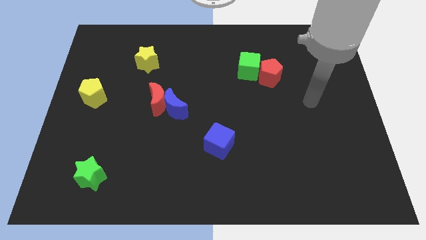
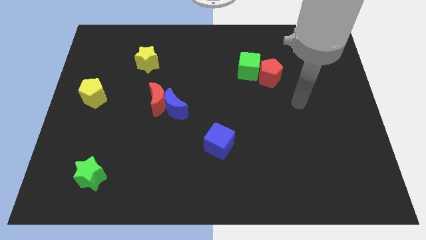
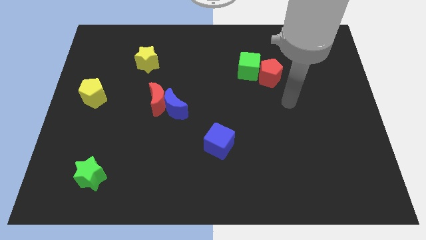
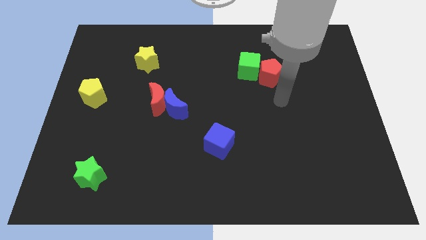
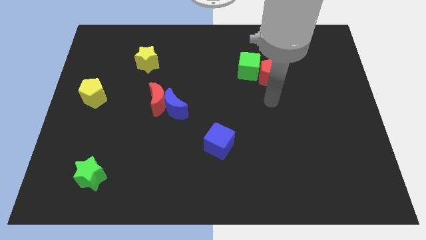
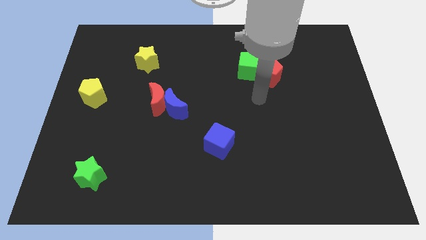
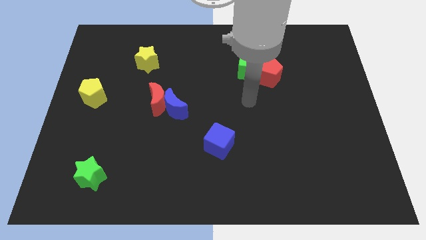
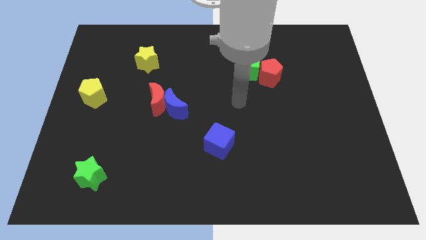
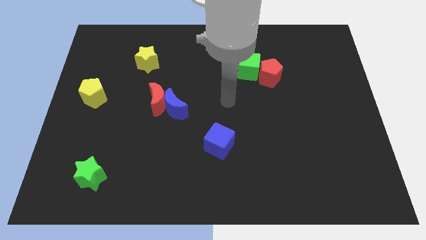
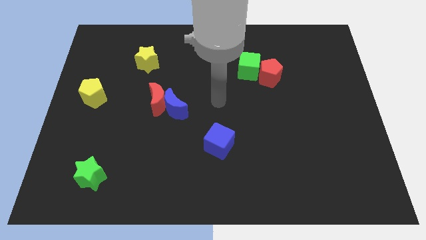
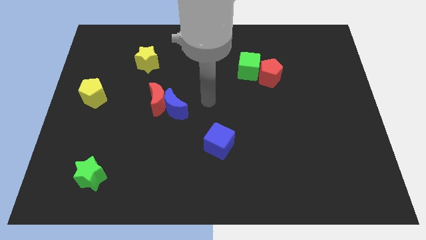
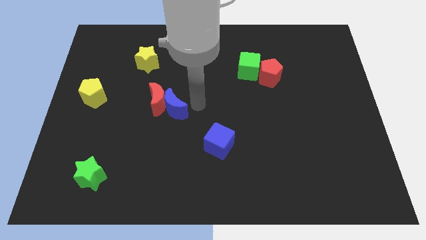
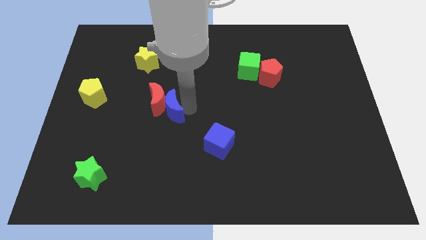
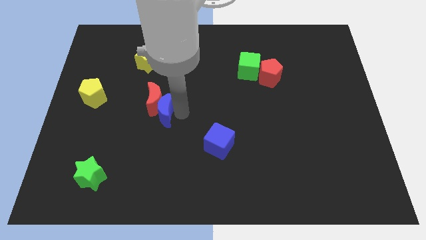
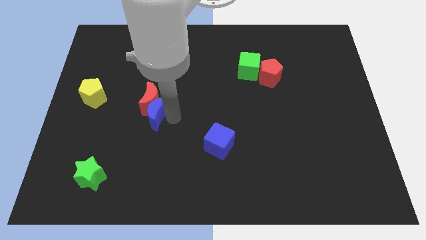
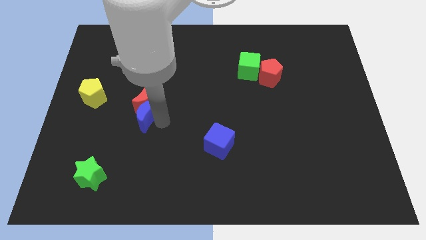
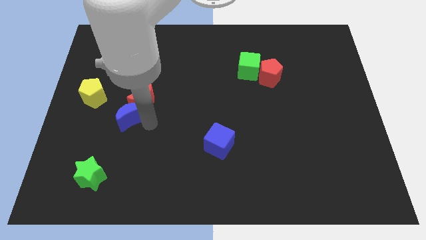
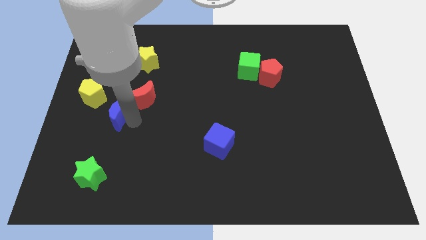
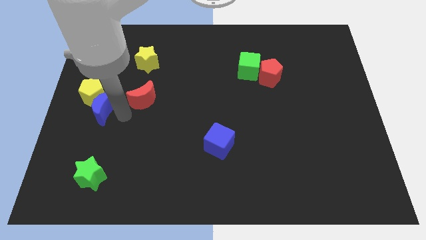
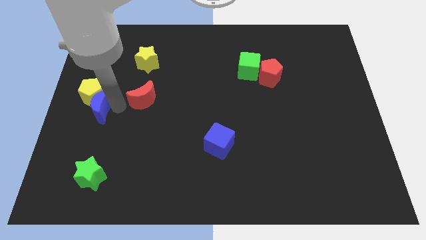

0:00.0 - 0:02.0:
move the red moon away from the blue moon

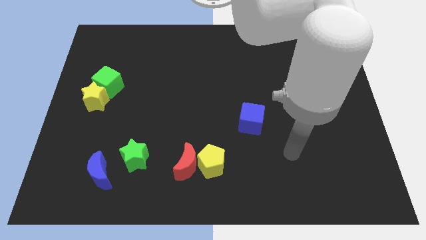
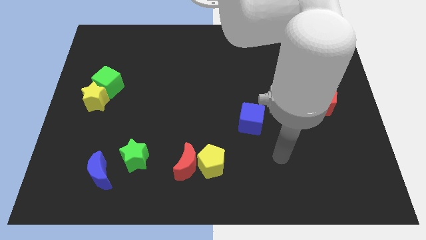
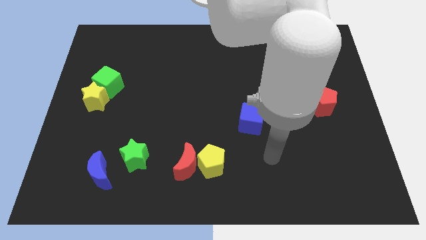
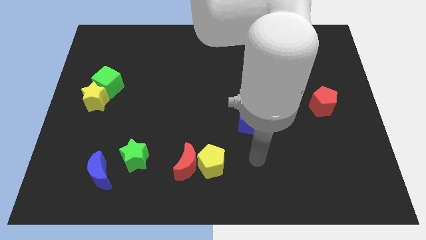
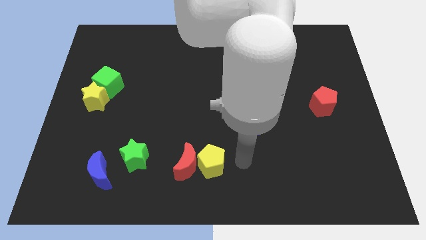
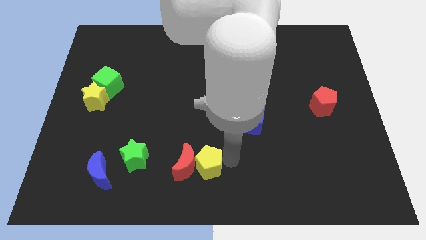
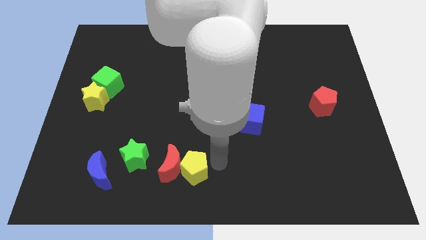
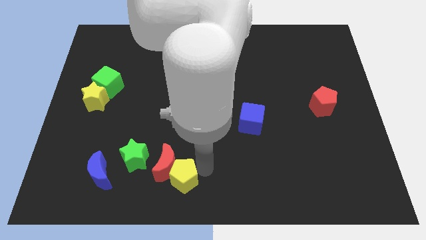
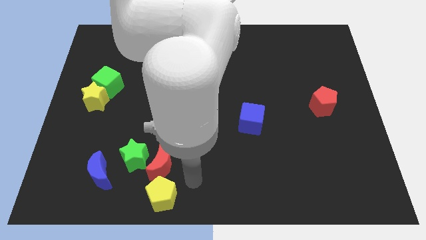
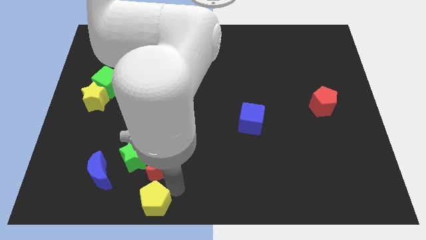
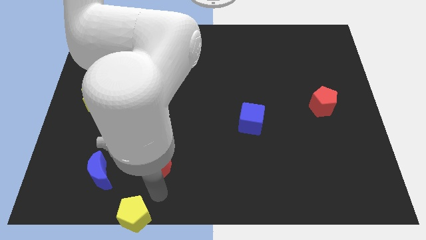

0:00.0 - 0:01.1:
pull the red moon apart from the yellow pentagon

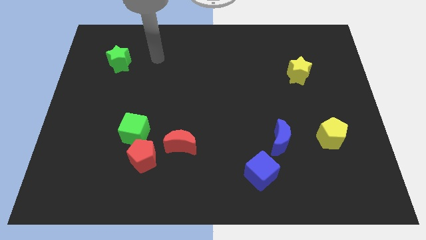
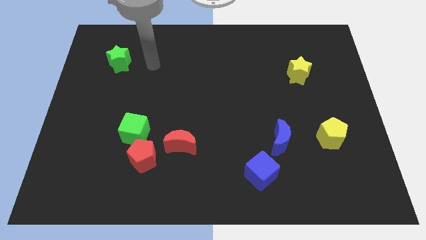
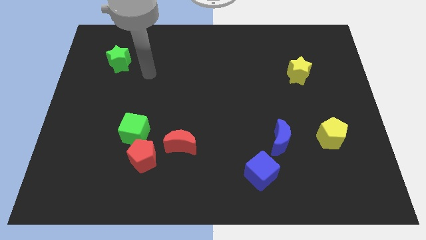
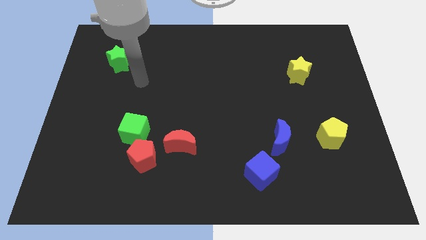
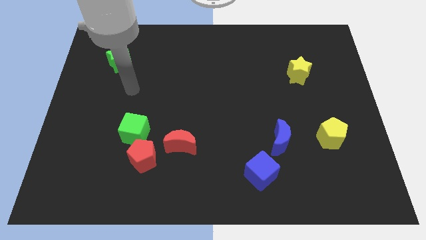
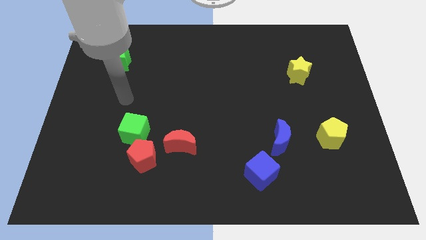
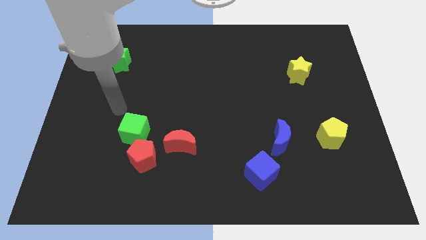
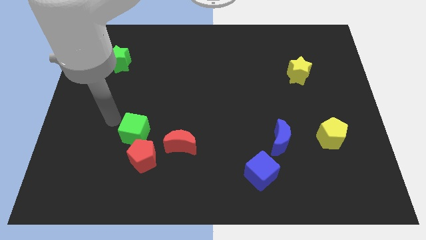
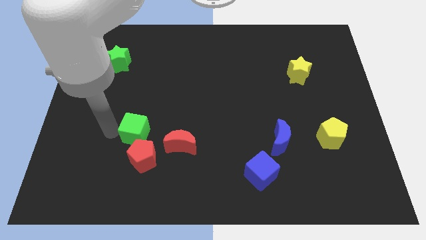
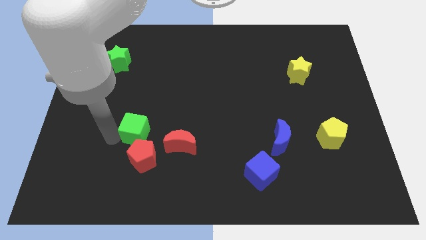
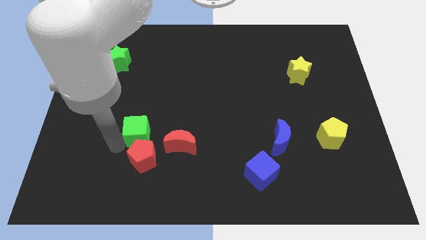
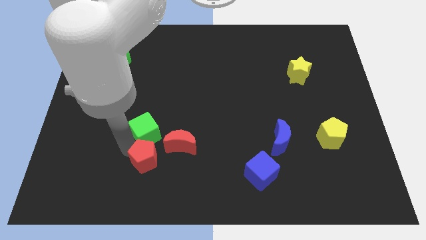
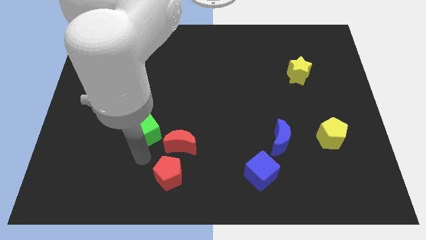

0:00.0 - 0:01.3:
separate the green cube from the red pentagon

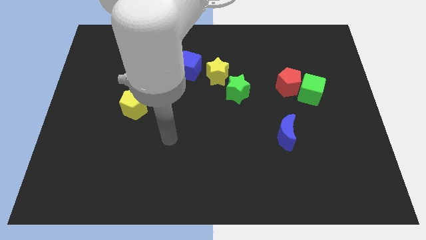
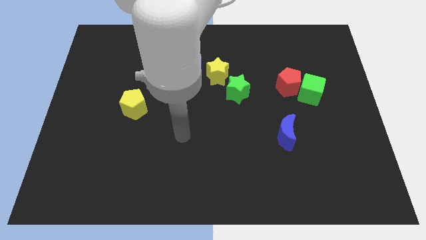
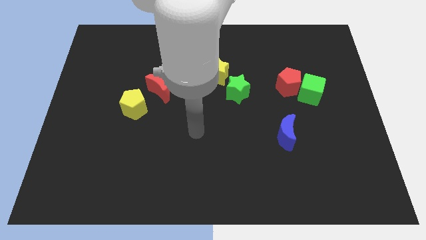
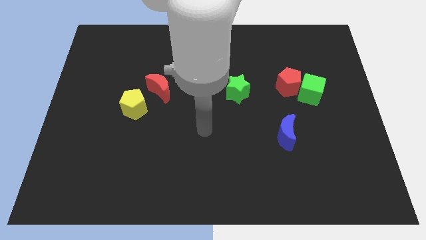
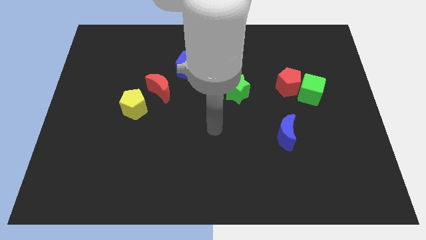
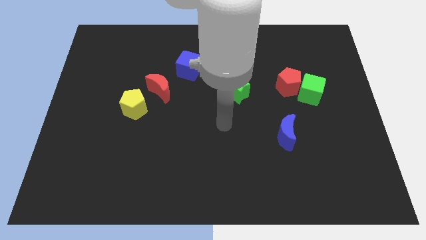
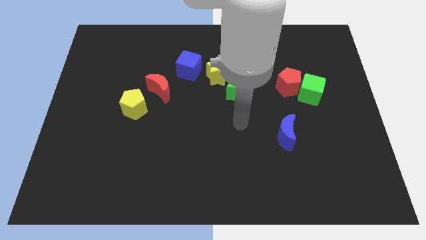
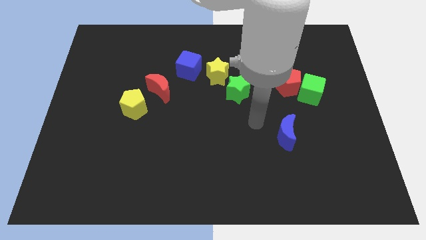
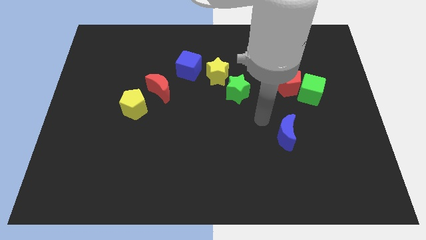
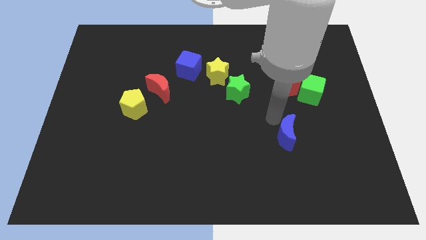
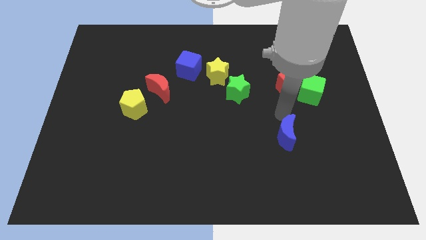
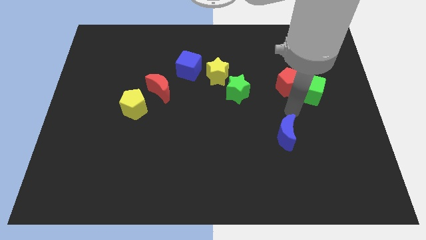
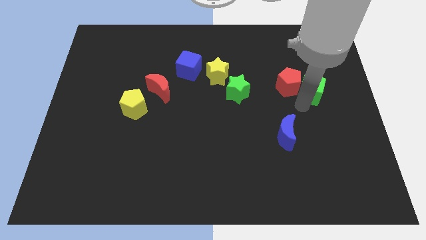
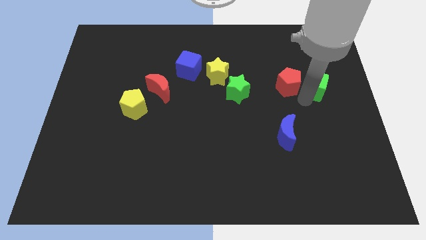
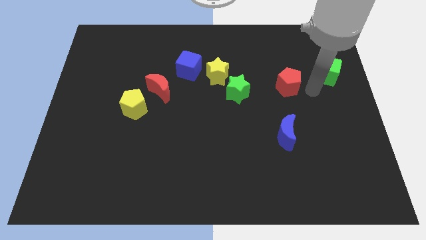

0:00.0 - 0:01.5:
move the red pentagon away from the green cube

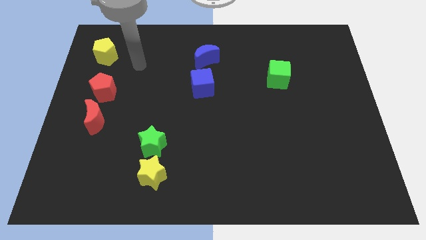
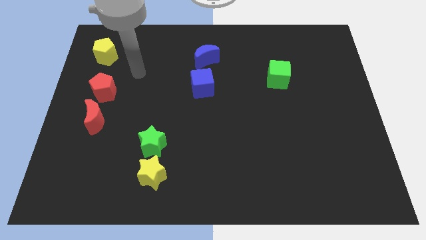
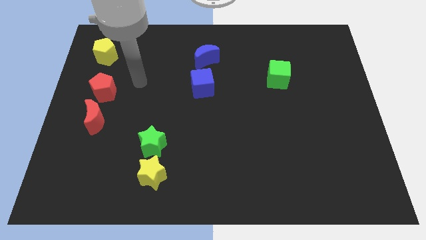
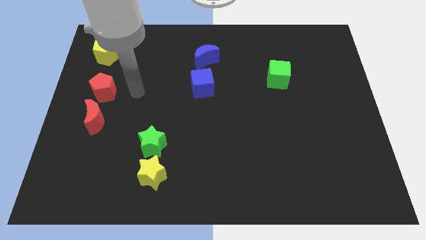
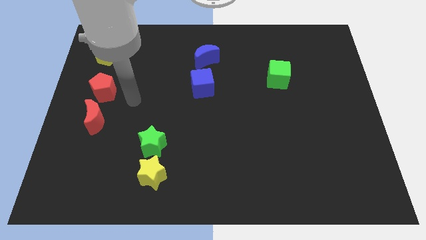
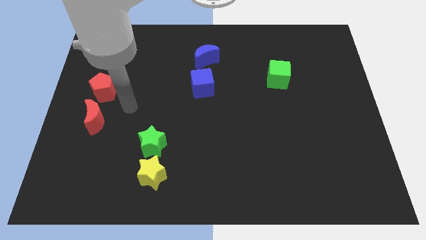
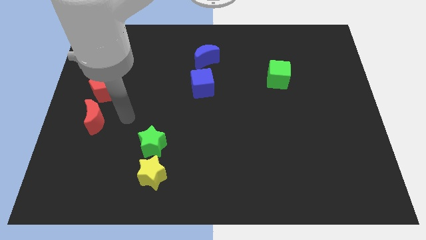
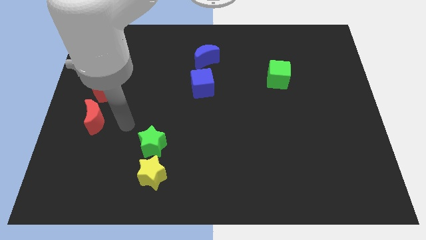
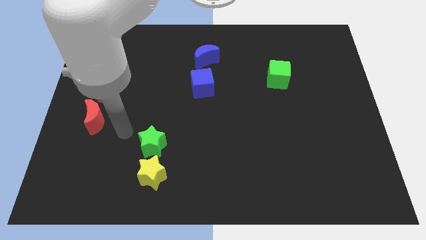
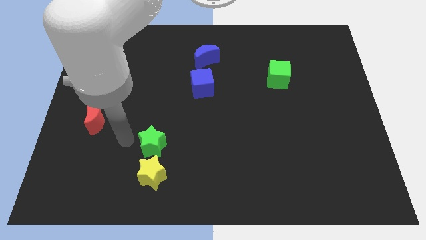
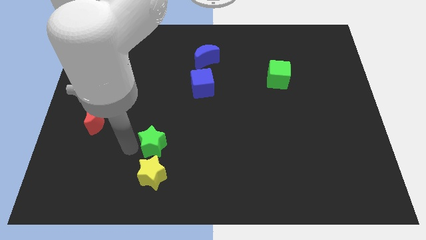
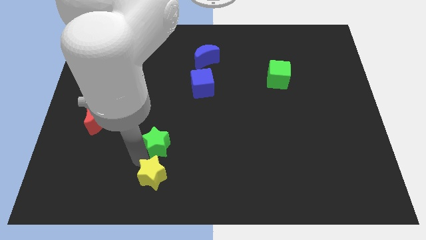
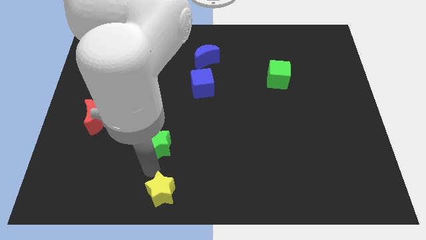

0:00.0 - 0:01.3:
separate the green star from the yellow star

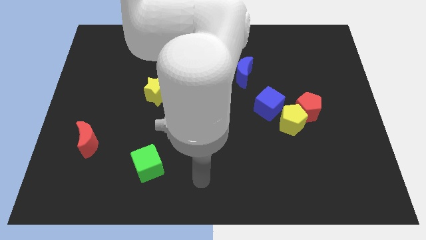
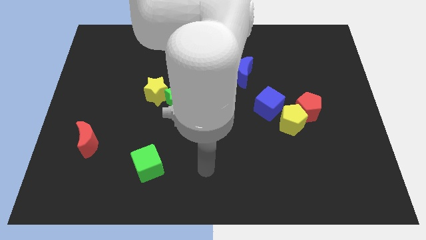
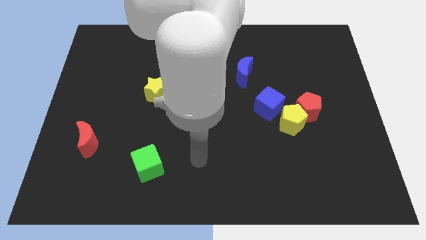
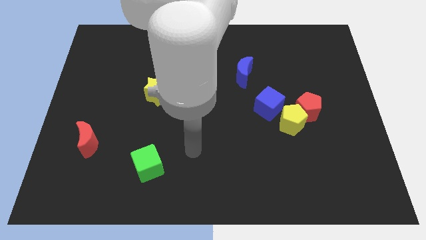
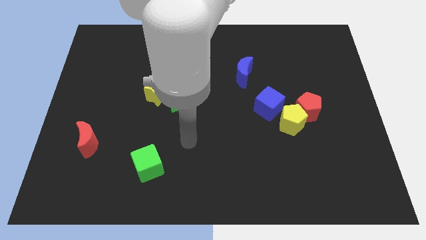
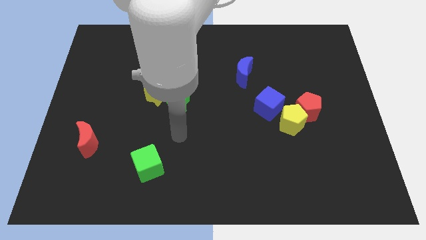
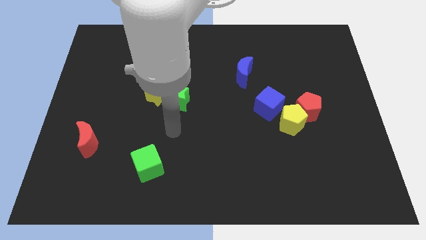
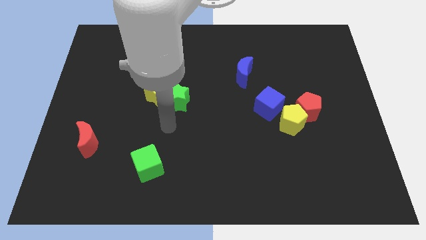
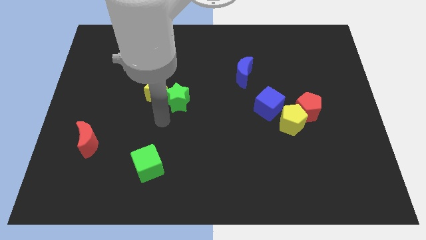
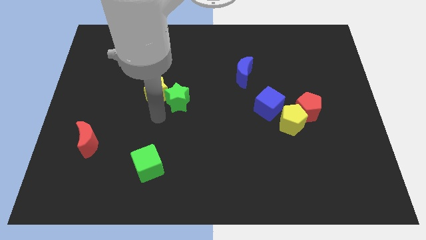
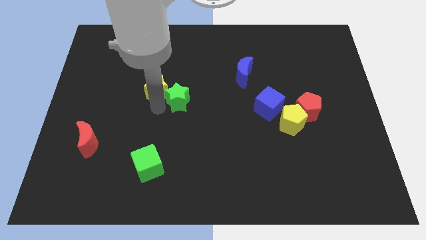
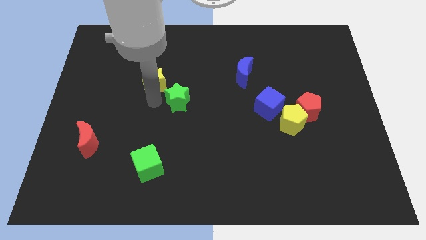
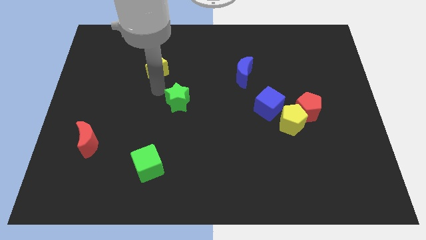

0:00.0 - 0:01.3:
pull the green star apart from the yellow star

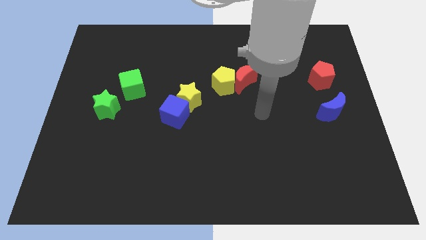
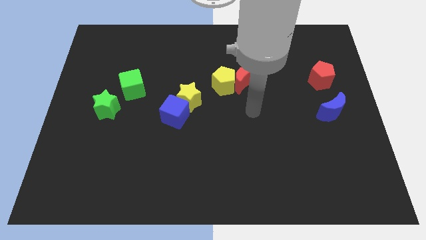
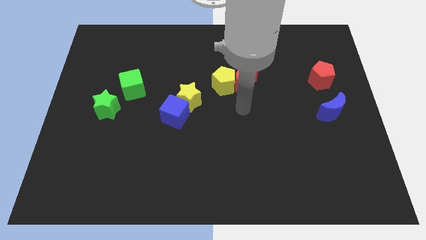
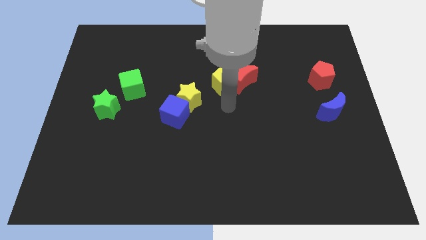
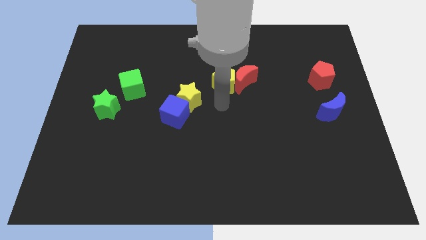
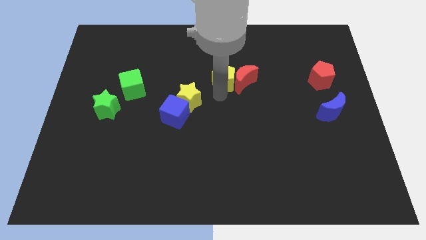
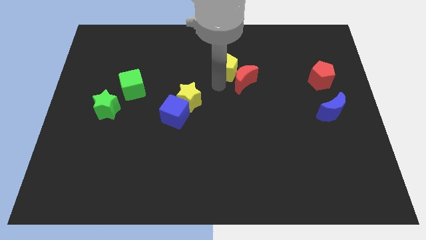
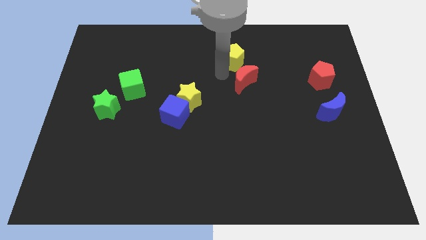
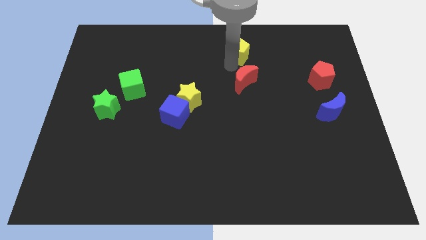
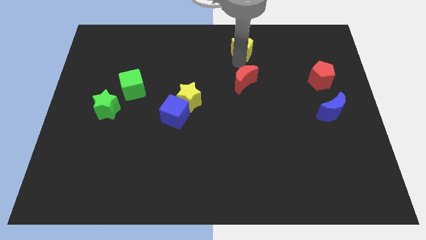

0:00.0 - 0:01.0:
move the red moon away from the yellow pentagon
